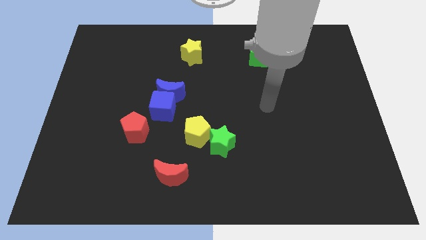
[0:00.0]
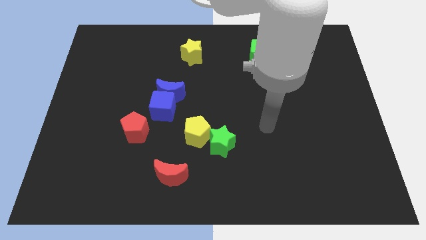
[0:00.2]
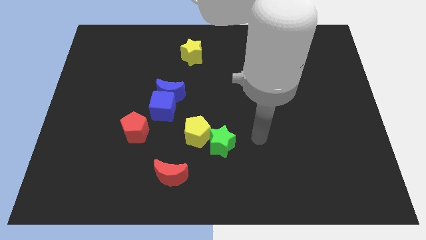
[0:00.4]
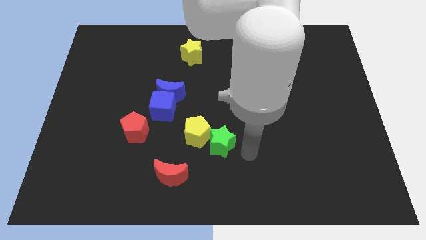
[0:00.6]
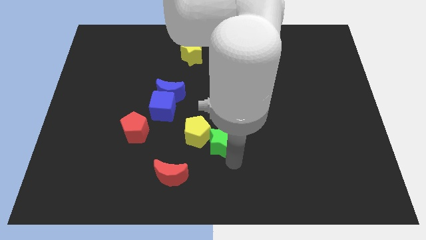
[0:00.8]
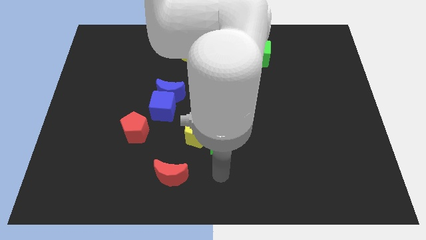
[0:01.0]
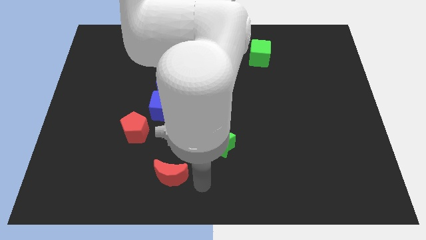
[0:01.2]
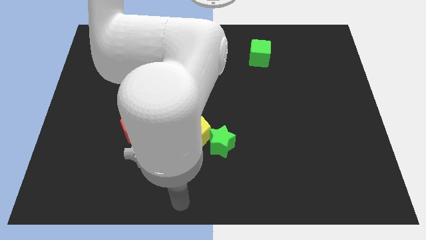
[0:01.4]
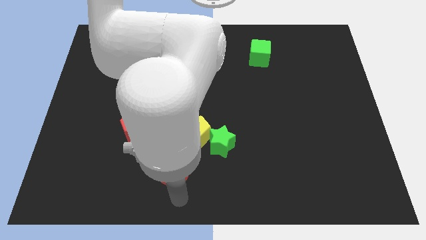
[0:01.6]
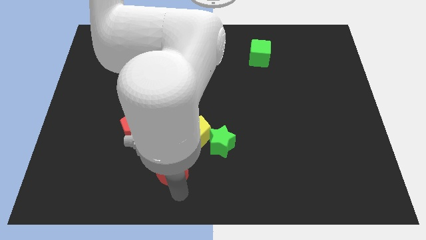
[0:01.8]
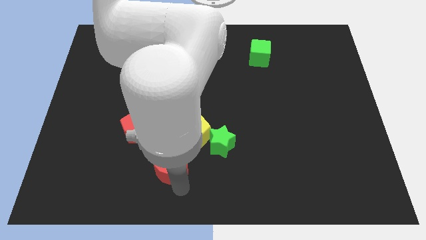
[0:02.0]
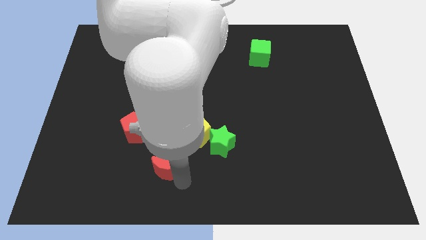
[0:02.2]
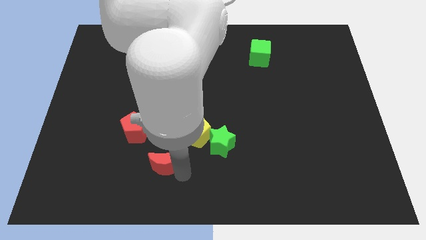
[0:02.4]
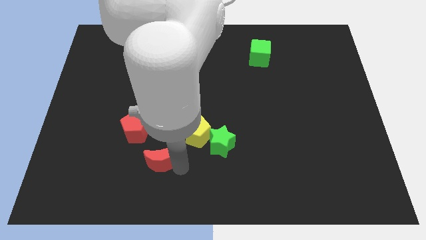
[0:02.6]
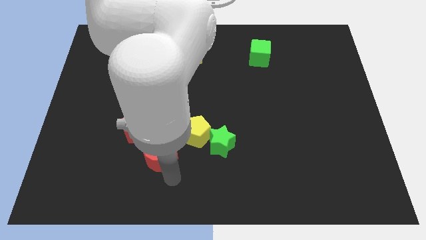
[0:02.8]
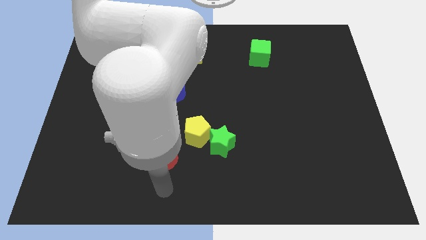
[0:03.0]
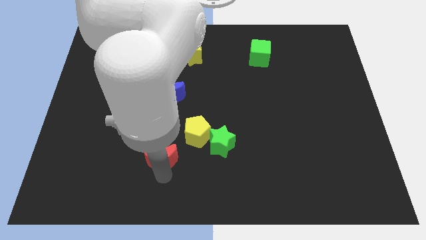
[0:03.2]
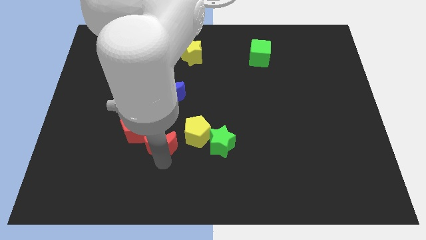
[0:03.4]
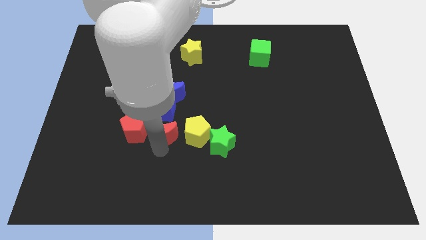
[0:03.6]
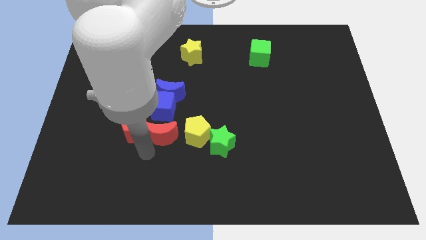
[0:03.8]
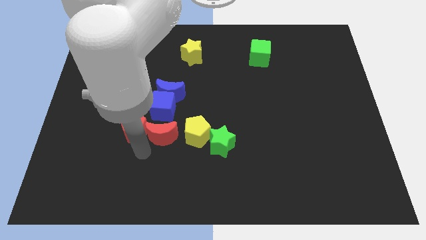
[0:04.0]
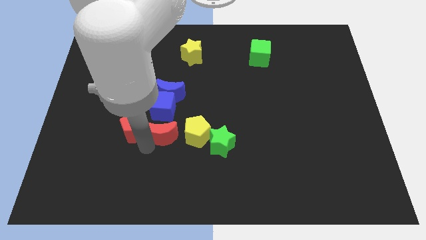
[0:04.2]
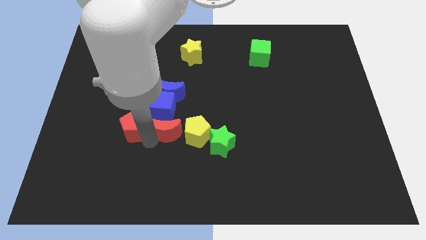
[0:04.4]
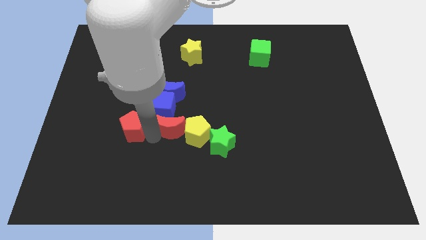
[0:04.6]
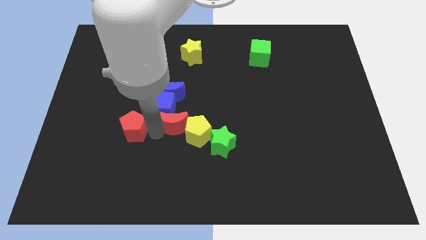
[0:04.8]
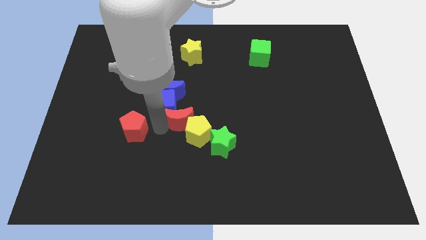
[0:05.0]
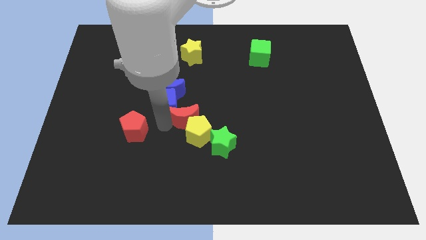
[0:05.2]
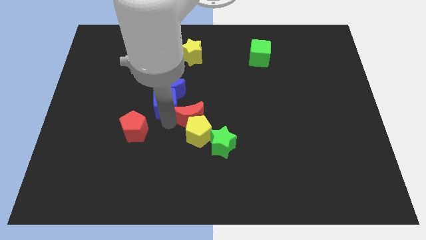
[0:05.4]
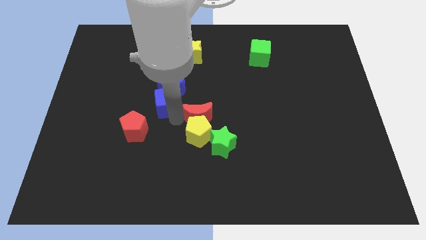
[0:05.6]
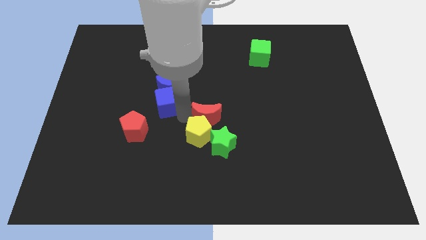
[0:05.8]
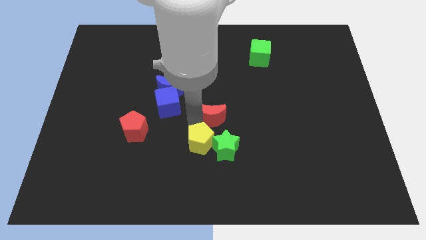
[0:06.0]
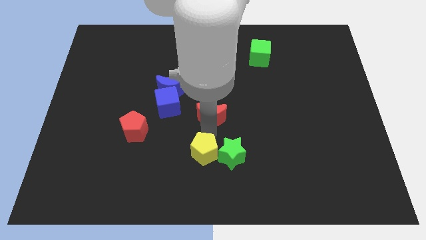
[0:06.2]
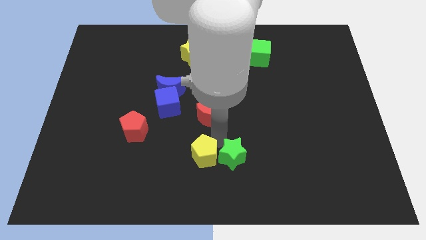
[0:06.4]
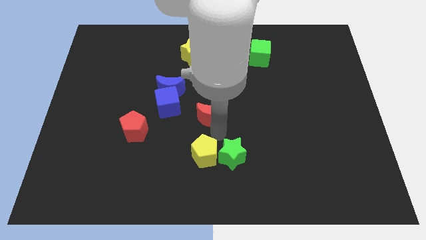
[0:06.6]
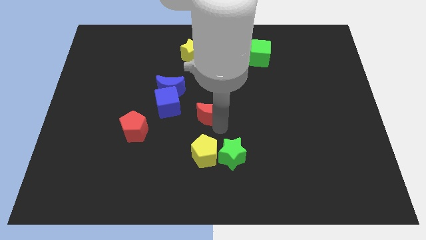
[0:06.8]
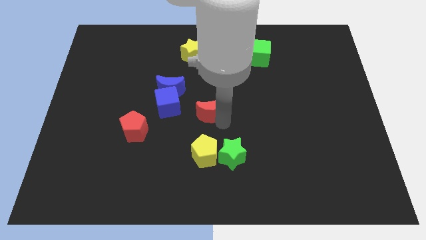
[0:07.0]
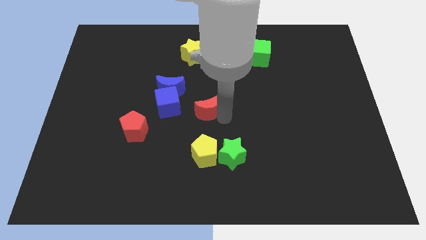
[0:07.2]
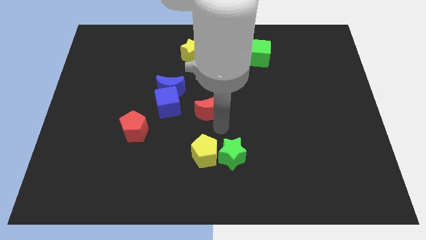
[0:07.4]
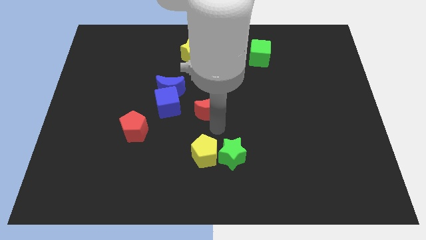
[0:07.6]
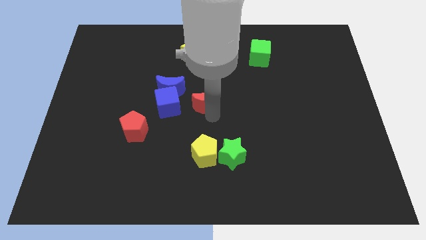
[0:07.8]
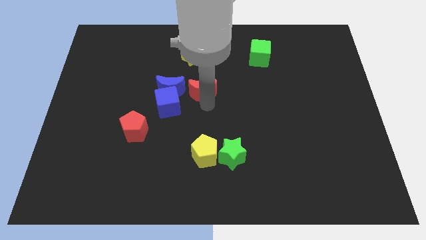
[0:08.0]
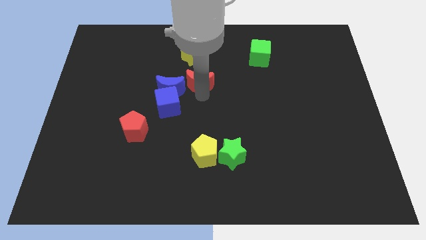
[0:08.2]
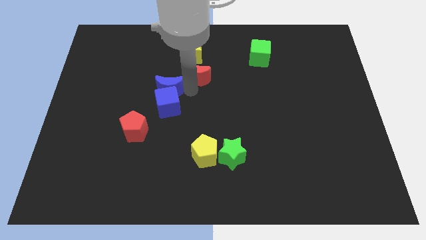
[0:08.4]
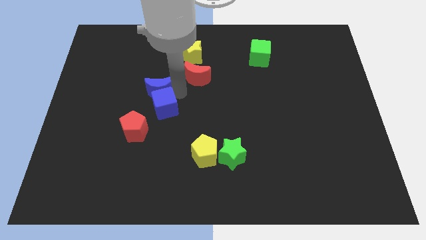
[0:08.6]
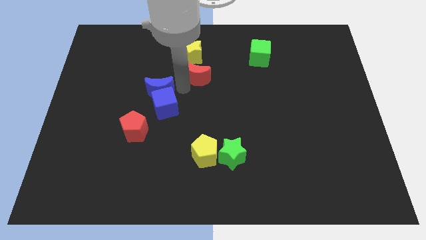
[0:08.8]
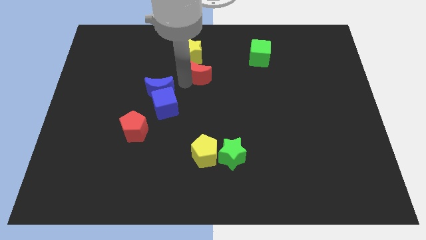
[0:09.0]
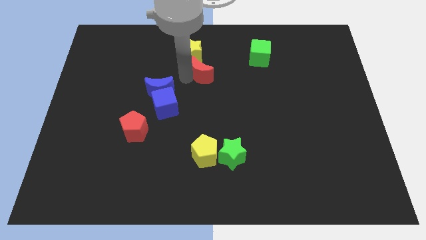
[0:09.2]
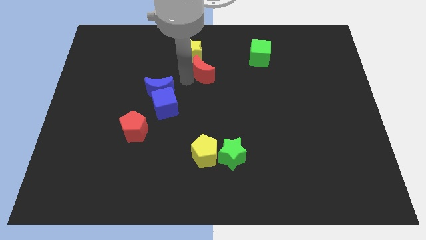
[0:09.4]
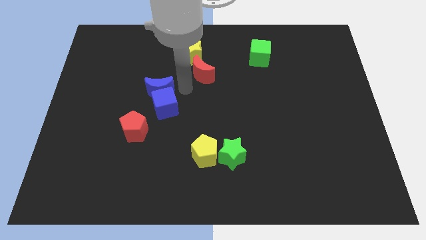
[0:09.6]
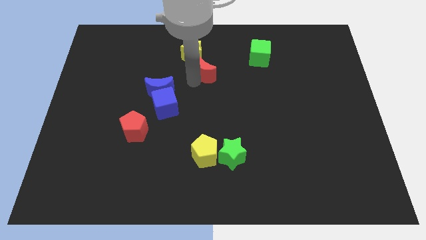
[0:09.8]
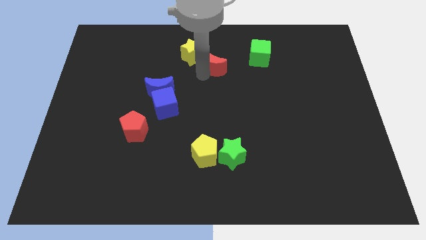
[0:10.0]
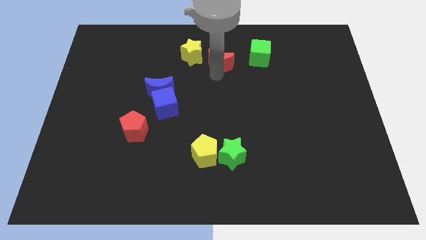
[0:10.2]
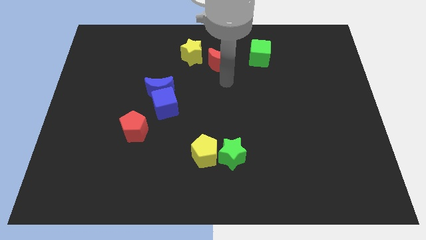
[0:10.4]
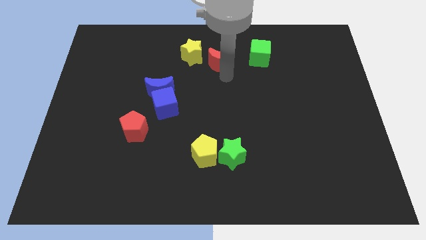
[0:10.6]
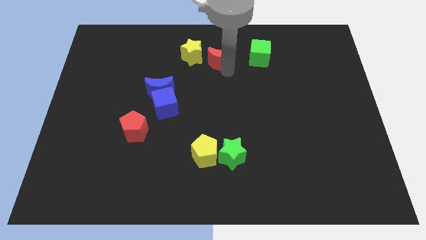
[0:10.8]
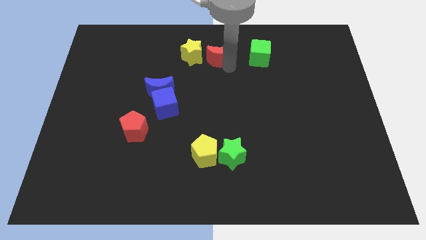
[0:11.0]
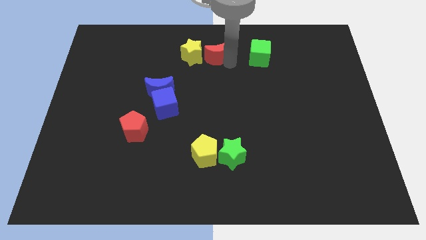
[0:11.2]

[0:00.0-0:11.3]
put the red moon to the top

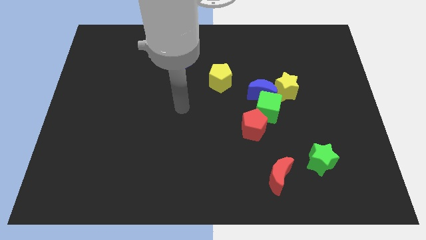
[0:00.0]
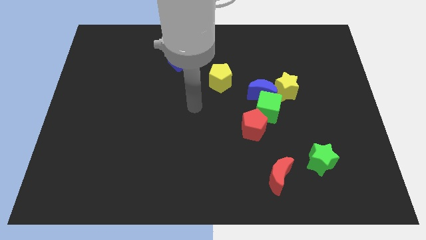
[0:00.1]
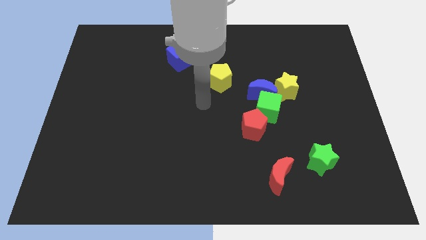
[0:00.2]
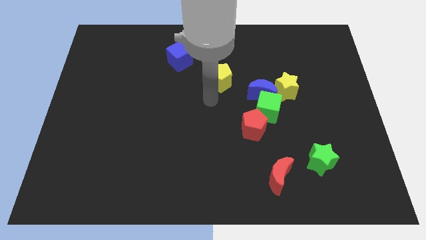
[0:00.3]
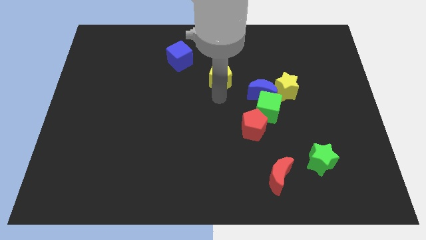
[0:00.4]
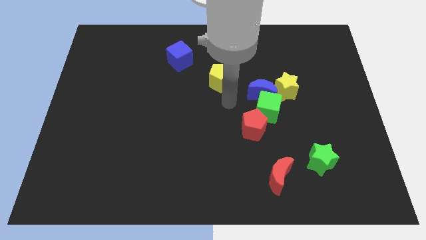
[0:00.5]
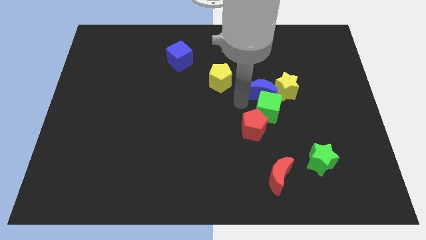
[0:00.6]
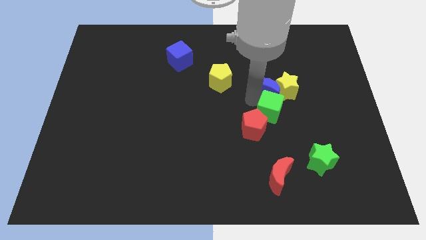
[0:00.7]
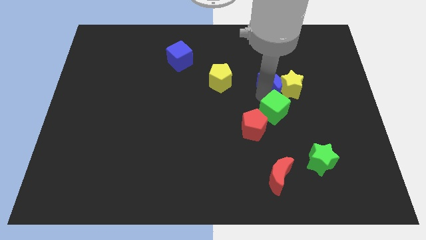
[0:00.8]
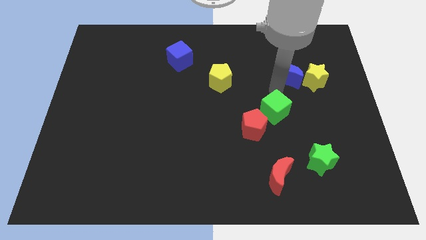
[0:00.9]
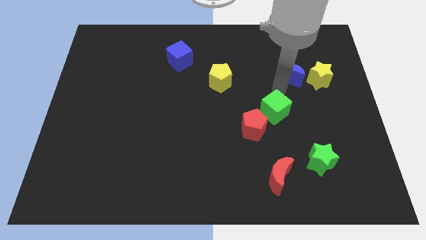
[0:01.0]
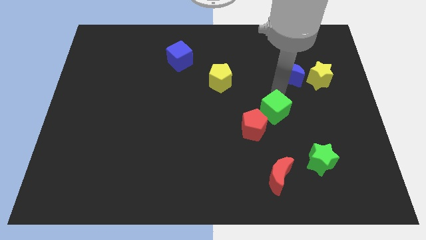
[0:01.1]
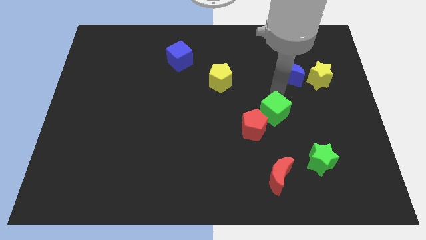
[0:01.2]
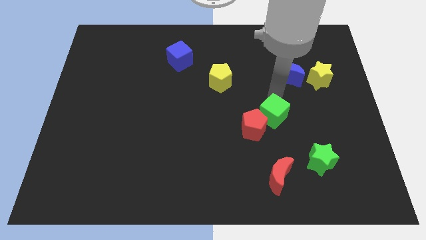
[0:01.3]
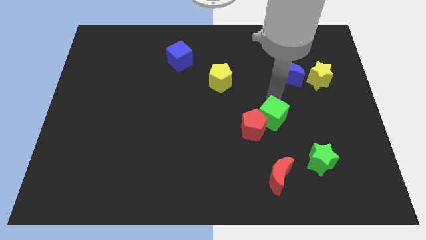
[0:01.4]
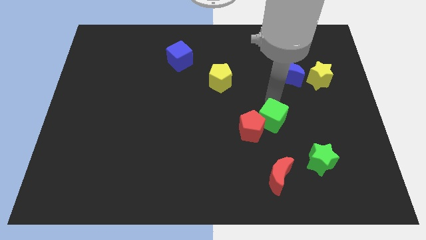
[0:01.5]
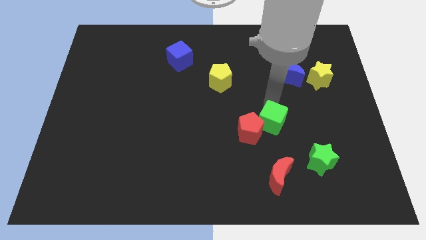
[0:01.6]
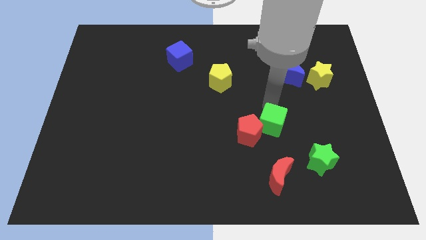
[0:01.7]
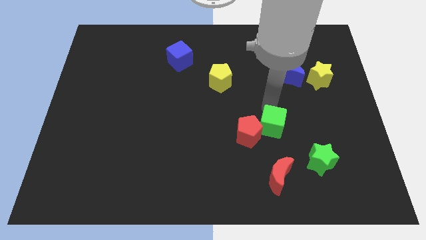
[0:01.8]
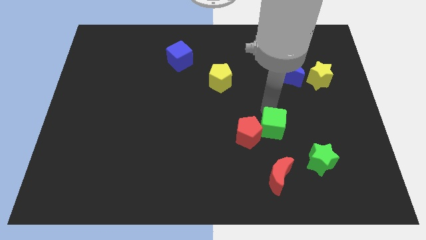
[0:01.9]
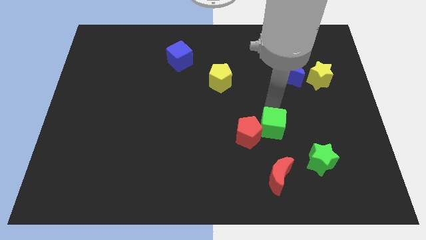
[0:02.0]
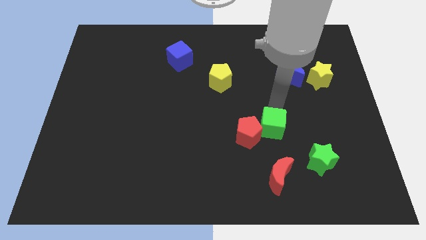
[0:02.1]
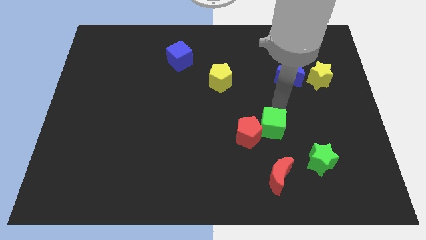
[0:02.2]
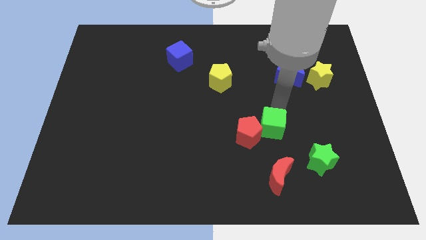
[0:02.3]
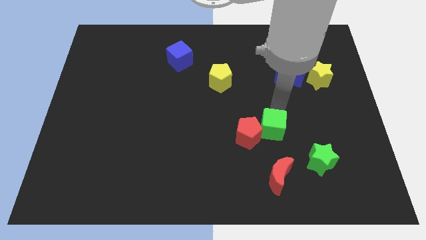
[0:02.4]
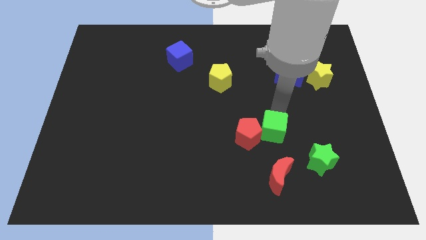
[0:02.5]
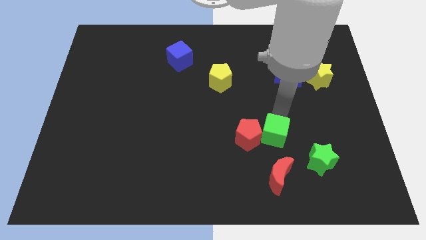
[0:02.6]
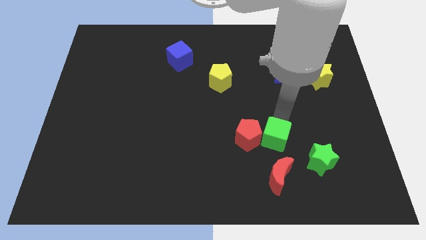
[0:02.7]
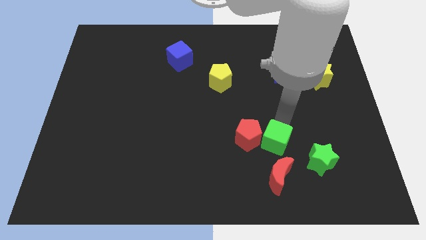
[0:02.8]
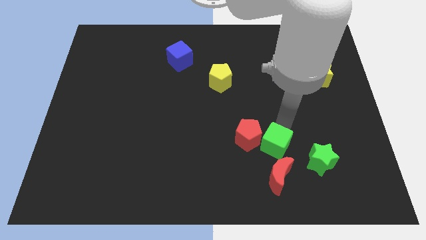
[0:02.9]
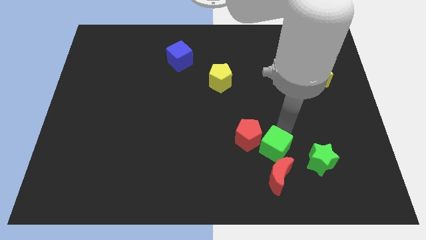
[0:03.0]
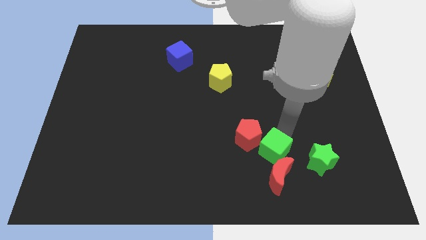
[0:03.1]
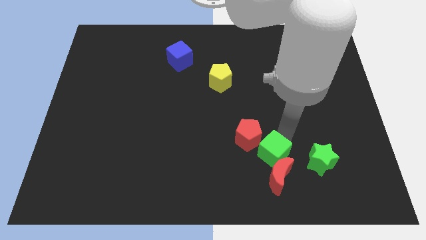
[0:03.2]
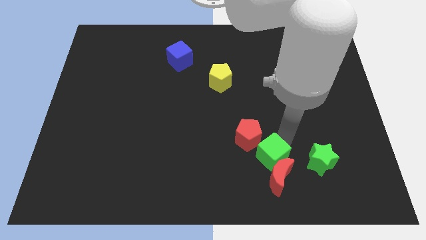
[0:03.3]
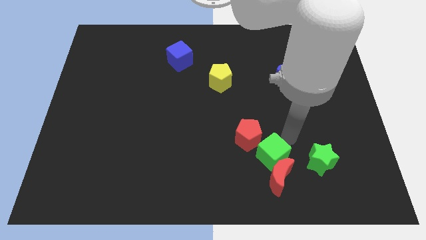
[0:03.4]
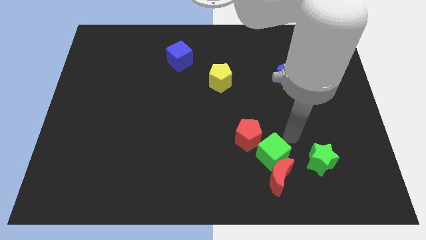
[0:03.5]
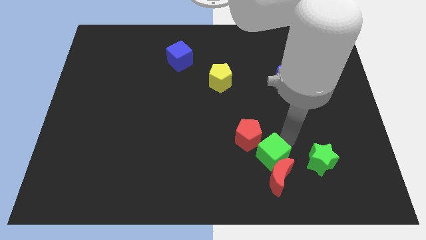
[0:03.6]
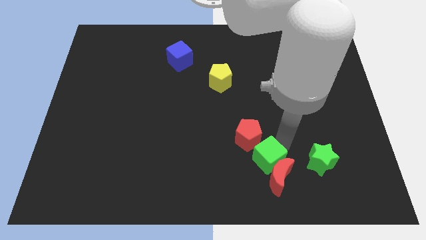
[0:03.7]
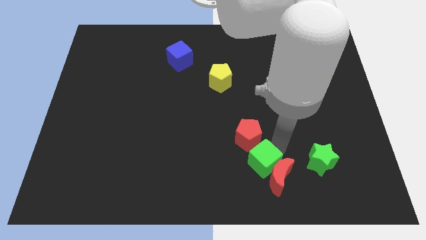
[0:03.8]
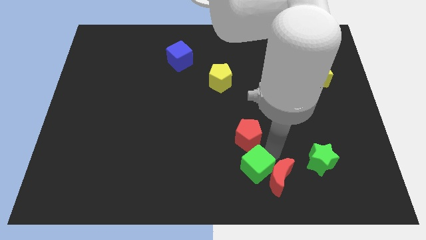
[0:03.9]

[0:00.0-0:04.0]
move the green cube to the bottom side
